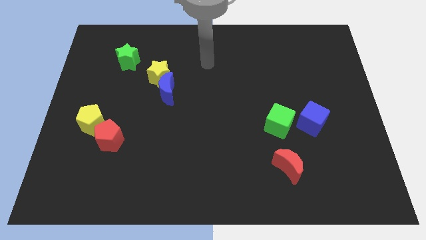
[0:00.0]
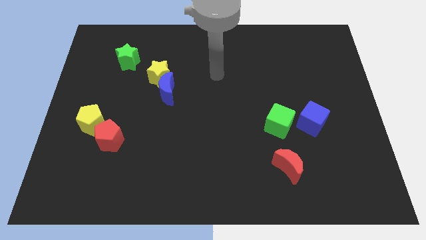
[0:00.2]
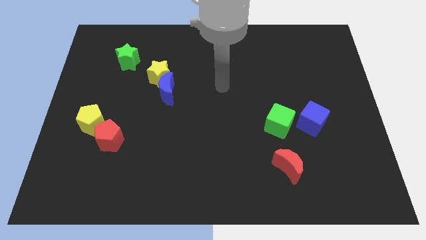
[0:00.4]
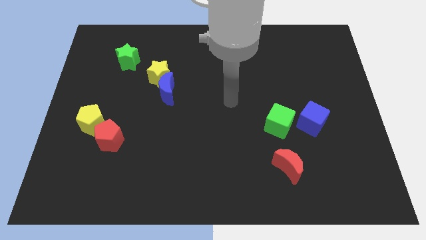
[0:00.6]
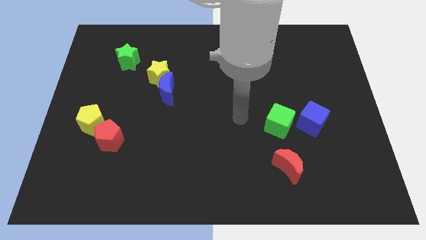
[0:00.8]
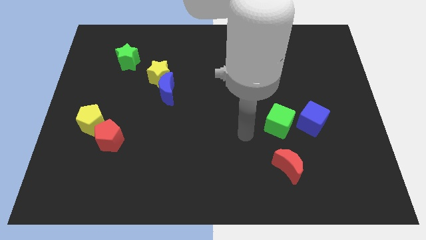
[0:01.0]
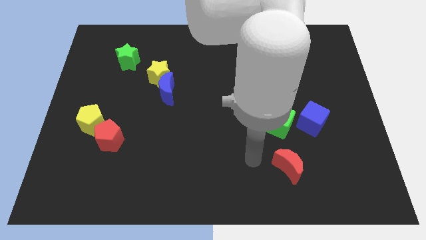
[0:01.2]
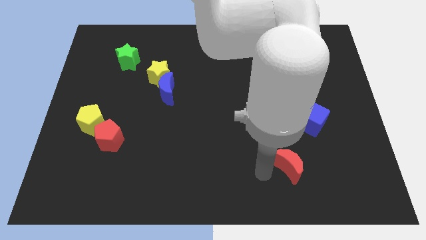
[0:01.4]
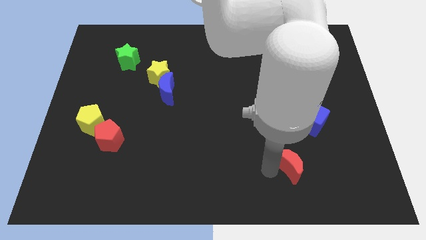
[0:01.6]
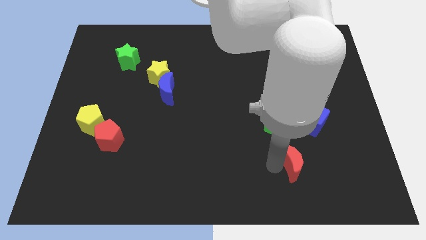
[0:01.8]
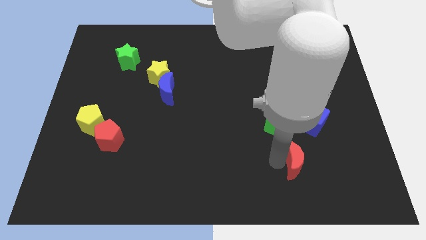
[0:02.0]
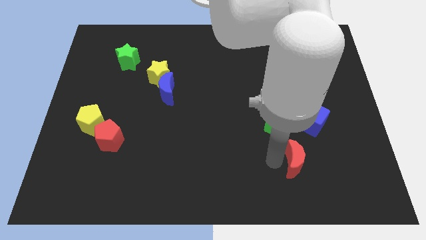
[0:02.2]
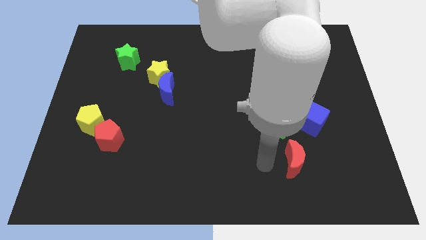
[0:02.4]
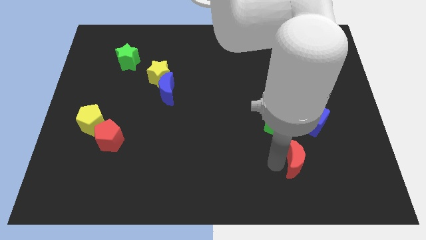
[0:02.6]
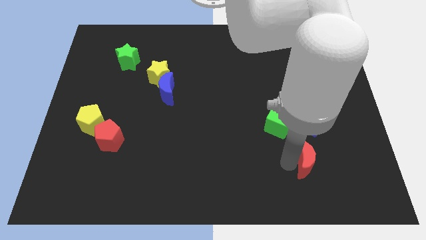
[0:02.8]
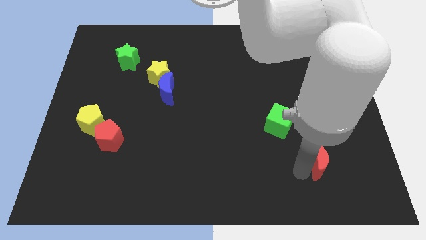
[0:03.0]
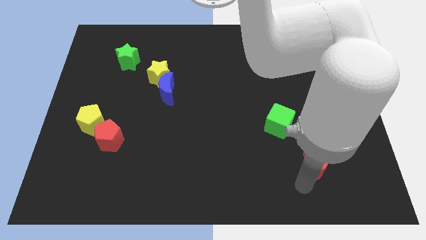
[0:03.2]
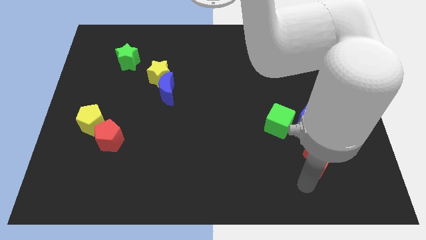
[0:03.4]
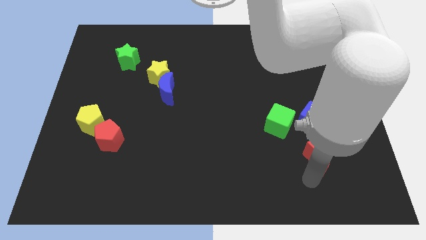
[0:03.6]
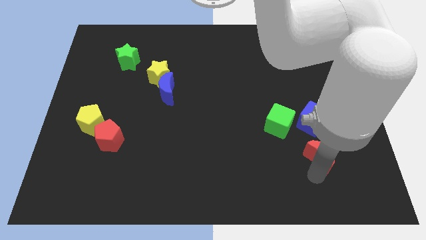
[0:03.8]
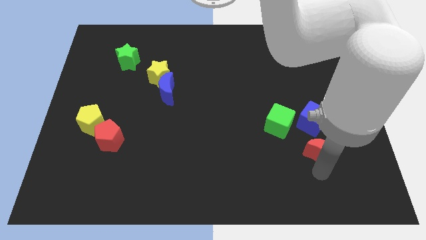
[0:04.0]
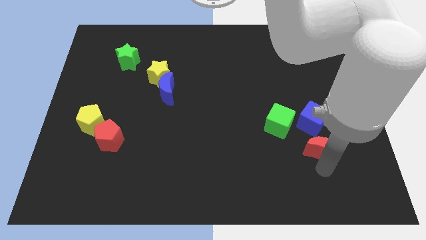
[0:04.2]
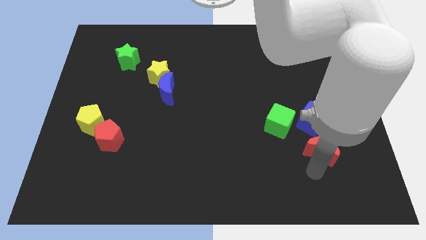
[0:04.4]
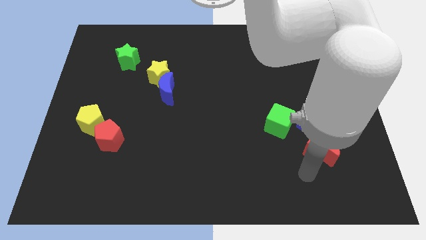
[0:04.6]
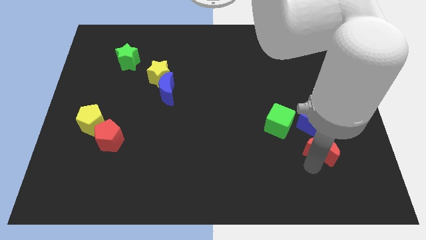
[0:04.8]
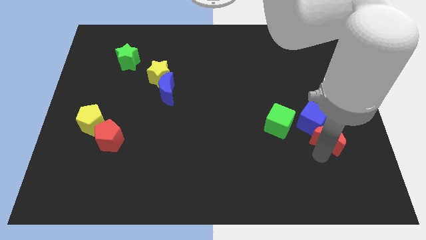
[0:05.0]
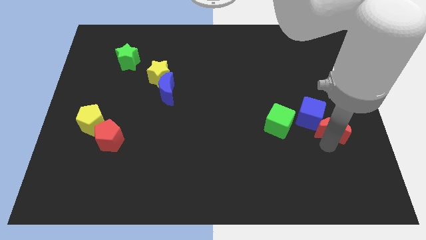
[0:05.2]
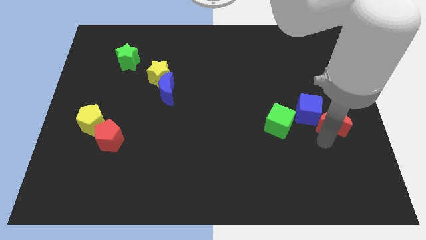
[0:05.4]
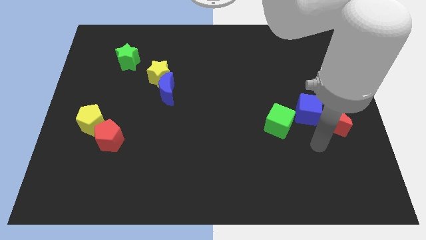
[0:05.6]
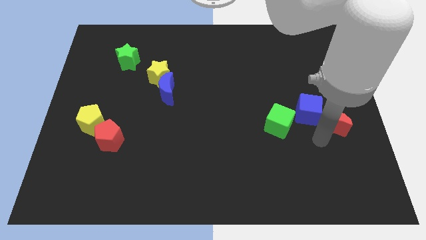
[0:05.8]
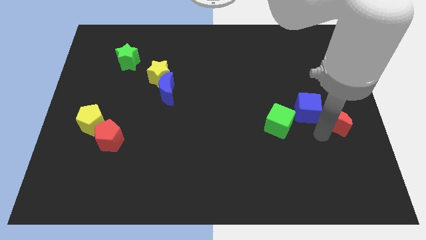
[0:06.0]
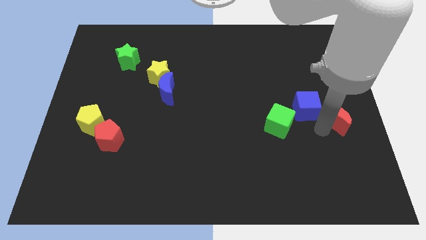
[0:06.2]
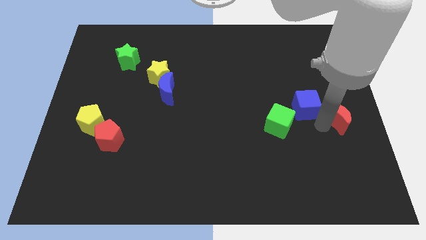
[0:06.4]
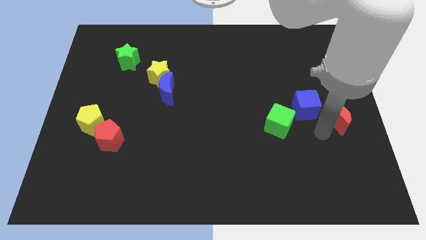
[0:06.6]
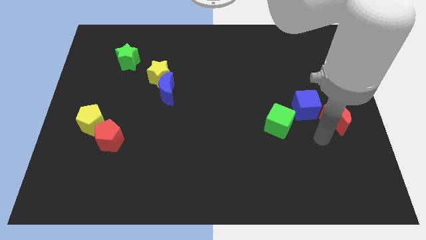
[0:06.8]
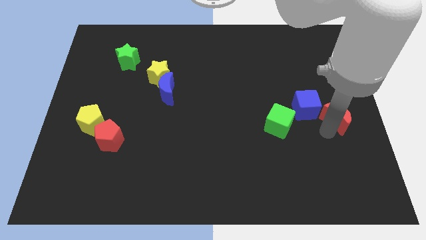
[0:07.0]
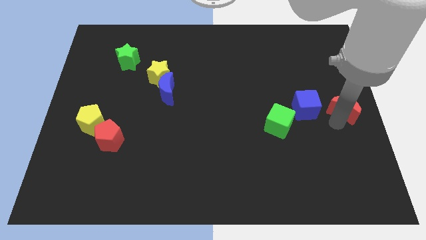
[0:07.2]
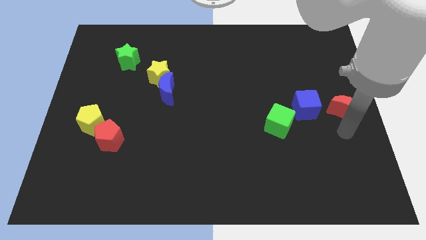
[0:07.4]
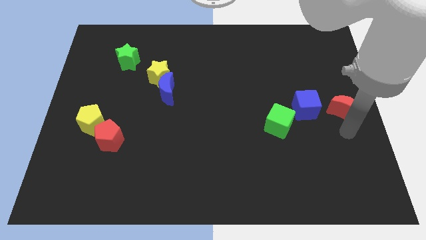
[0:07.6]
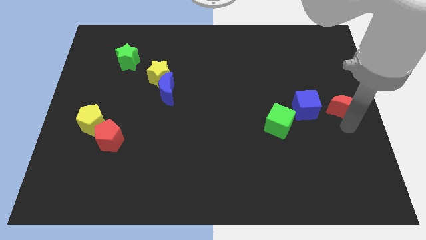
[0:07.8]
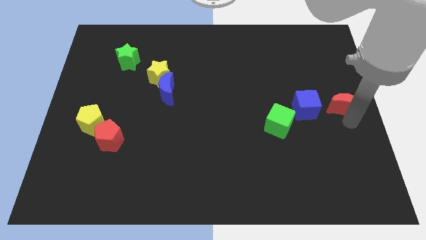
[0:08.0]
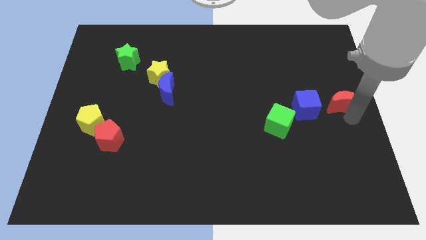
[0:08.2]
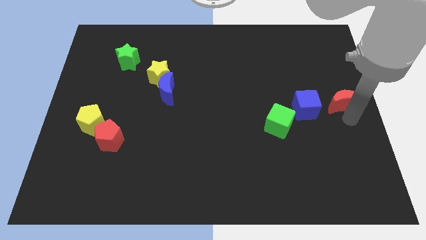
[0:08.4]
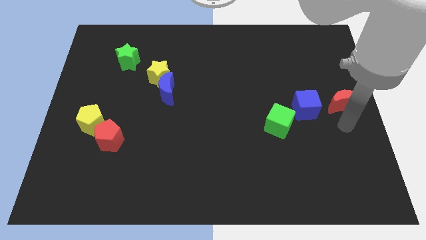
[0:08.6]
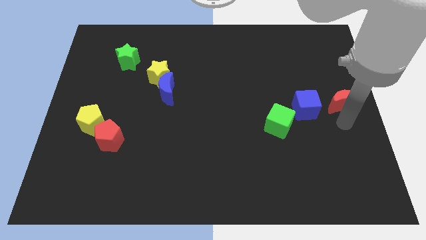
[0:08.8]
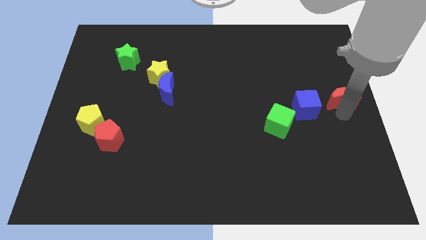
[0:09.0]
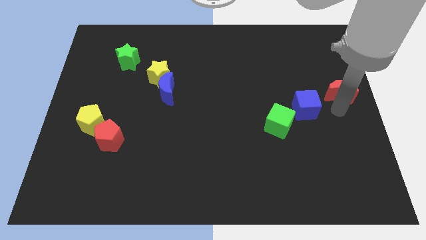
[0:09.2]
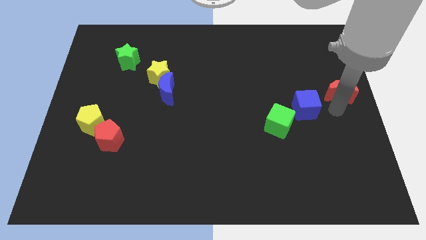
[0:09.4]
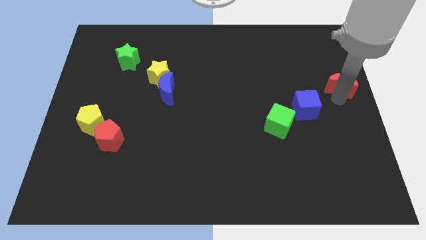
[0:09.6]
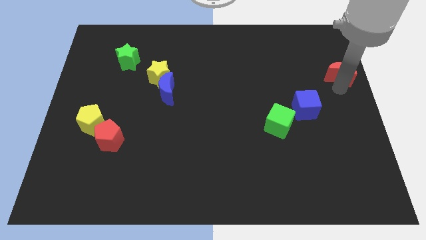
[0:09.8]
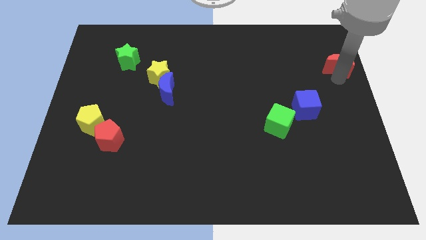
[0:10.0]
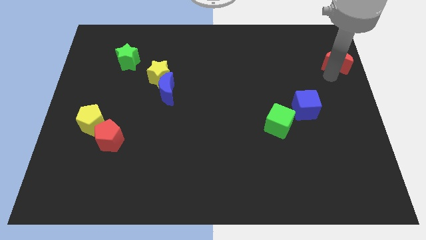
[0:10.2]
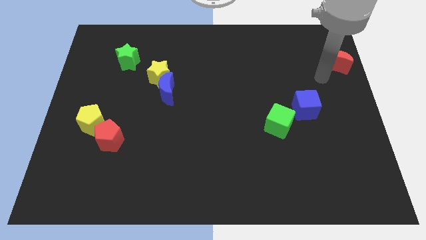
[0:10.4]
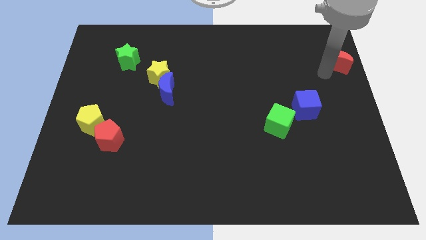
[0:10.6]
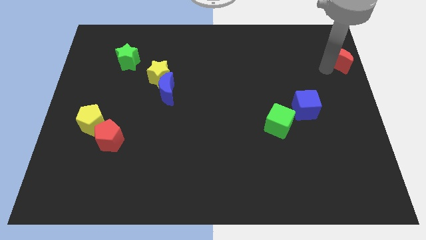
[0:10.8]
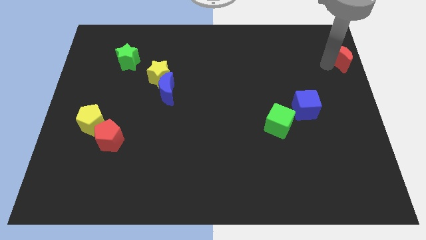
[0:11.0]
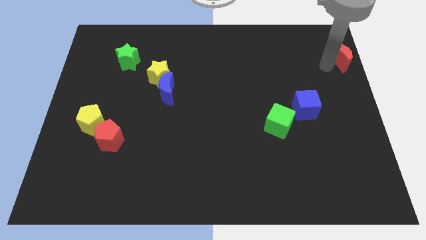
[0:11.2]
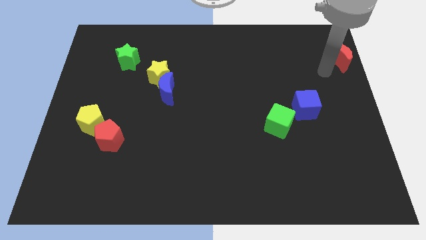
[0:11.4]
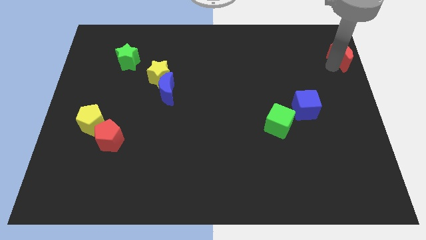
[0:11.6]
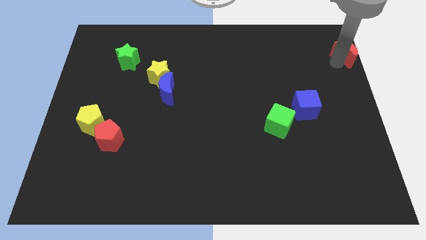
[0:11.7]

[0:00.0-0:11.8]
put the red moon to the upper right corner

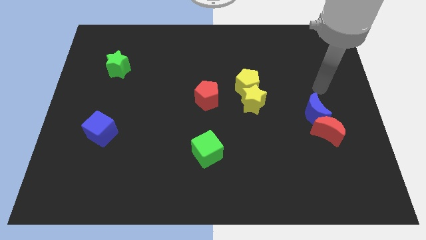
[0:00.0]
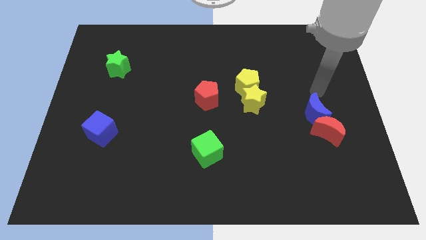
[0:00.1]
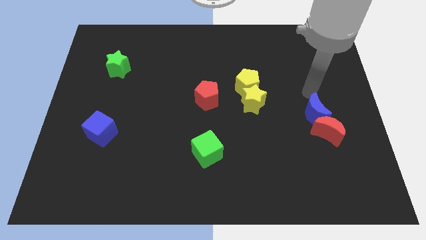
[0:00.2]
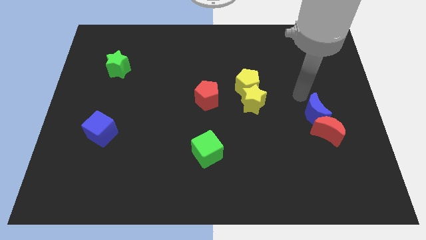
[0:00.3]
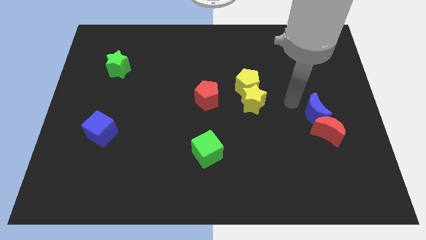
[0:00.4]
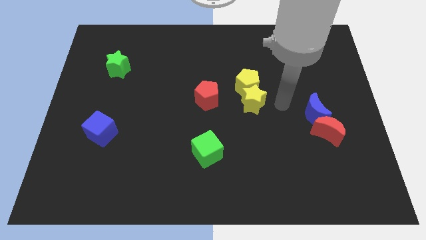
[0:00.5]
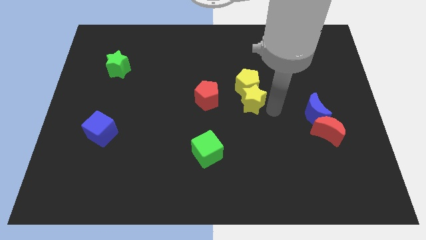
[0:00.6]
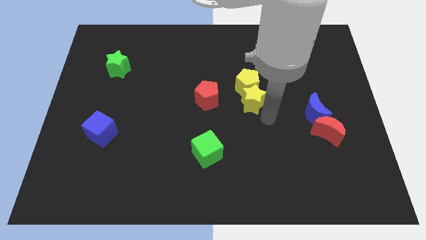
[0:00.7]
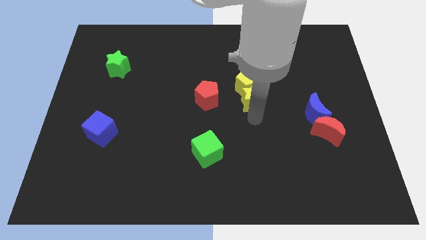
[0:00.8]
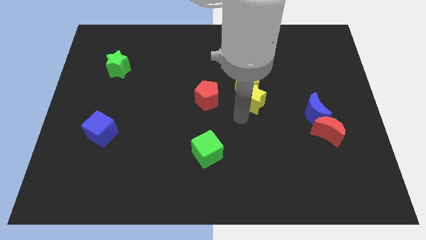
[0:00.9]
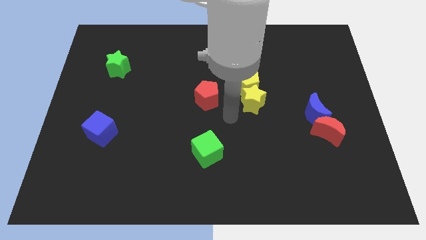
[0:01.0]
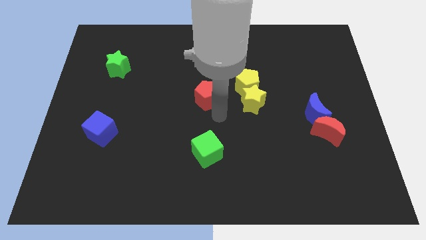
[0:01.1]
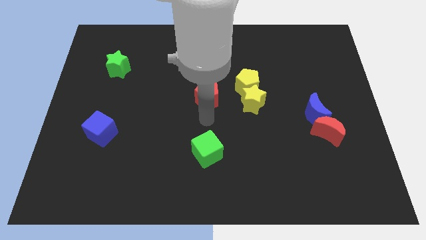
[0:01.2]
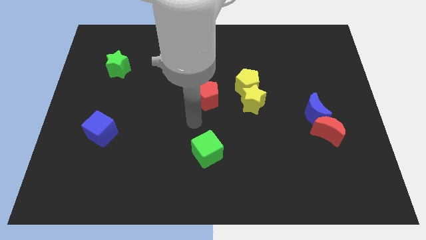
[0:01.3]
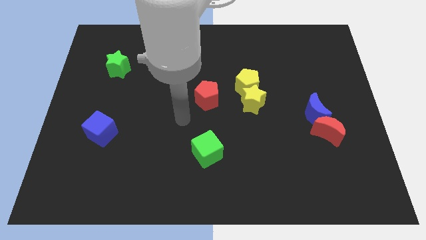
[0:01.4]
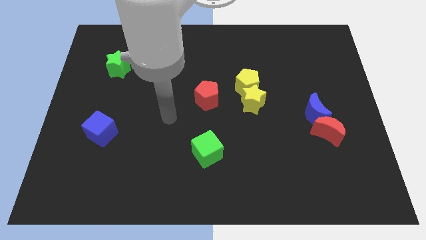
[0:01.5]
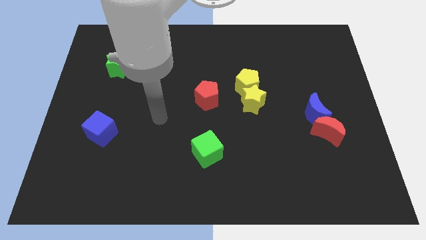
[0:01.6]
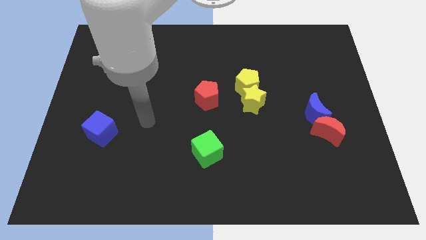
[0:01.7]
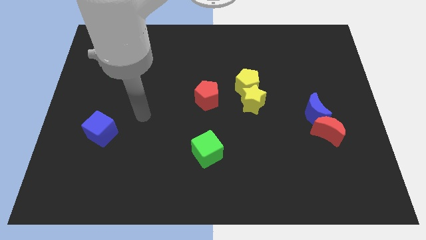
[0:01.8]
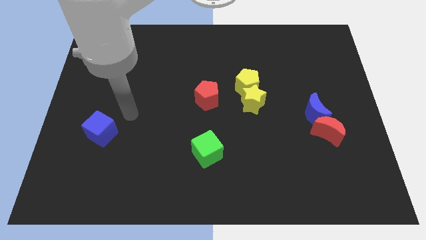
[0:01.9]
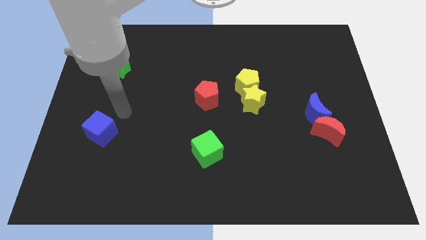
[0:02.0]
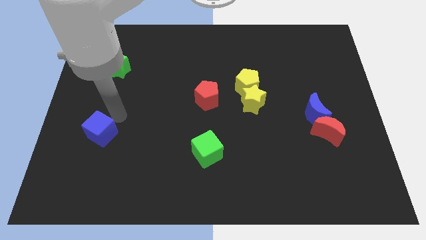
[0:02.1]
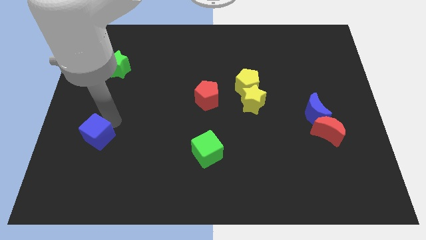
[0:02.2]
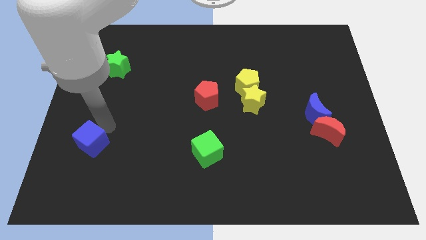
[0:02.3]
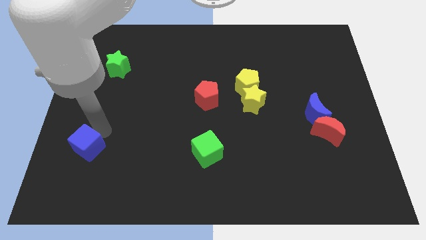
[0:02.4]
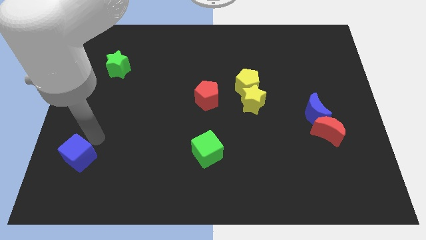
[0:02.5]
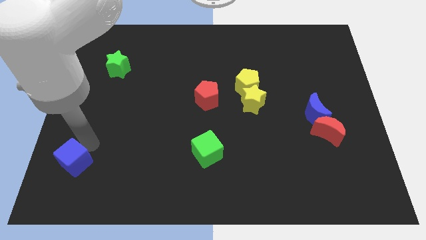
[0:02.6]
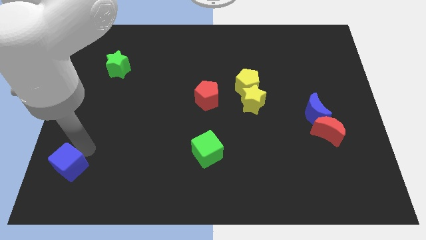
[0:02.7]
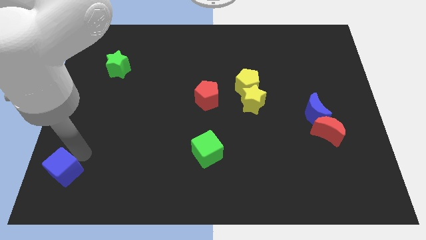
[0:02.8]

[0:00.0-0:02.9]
slide the blue cube to the bottom left of the board
